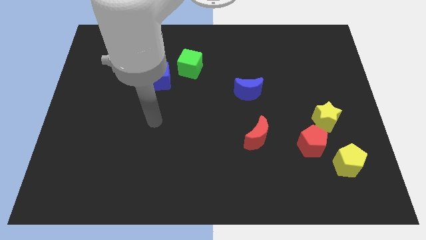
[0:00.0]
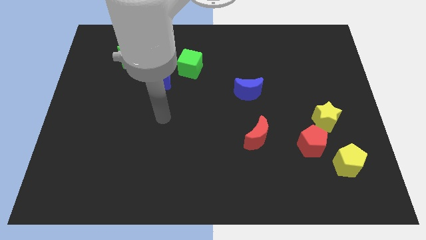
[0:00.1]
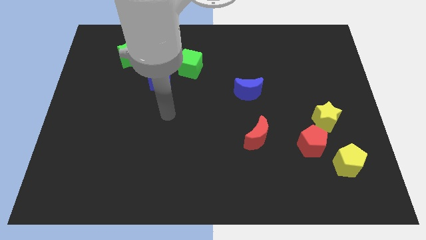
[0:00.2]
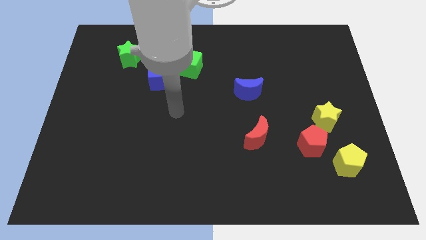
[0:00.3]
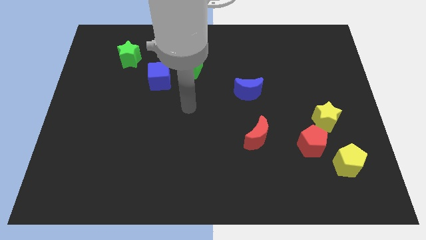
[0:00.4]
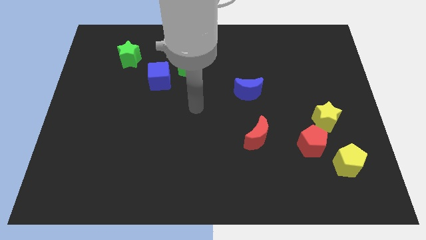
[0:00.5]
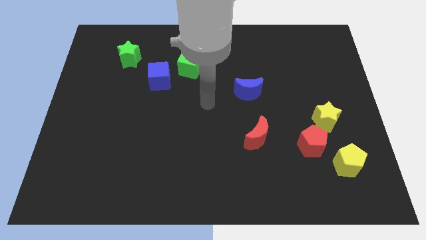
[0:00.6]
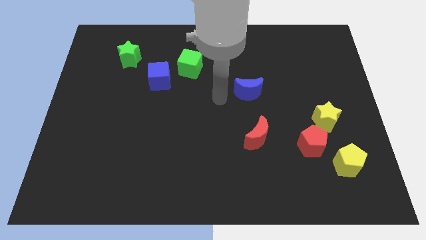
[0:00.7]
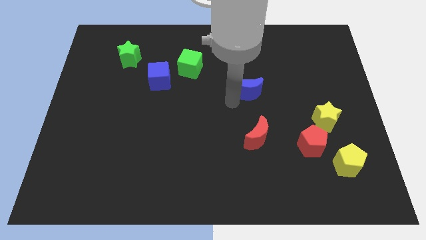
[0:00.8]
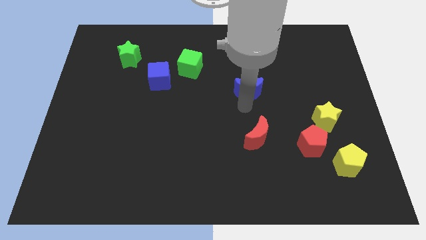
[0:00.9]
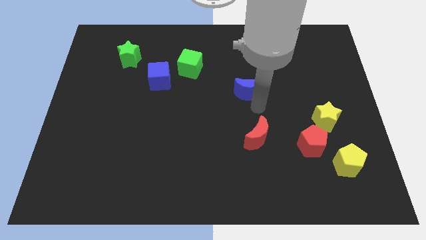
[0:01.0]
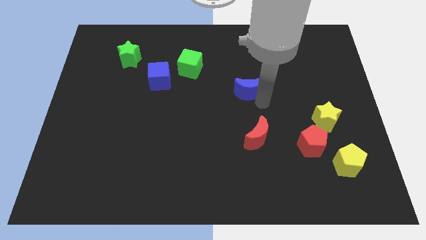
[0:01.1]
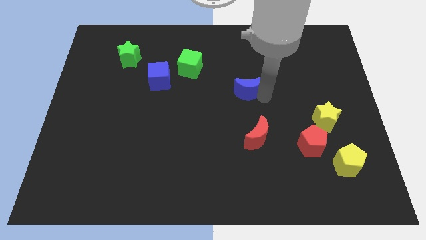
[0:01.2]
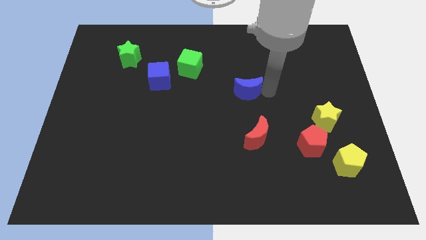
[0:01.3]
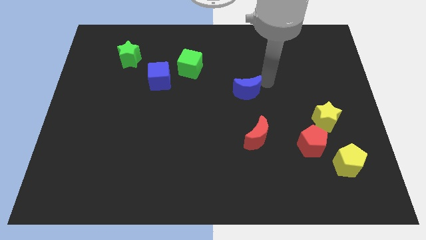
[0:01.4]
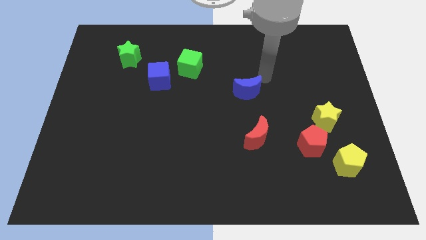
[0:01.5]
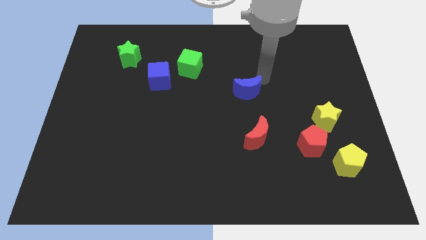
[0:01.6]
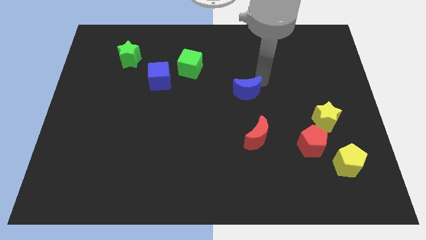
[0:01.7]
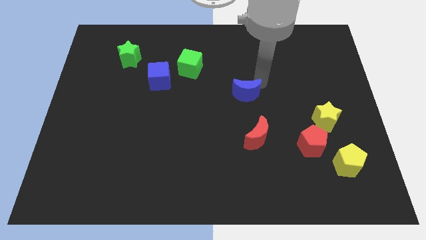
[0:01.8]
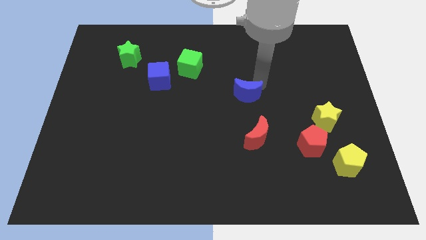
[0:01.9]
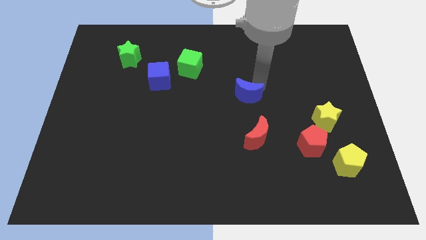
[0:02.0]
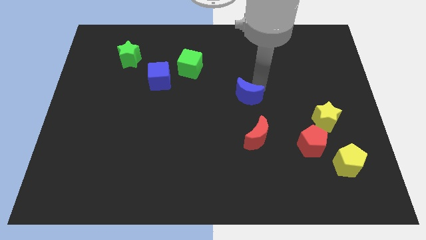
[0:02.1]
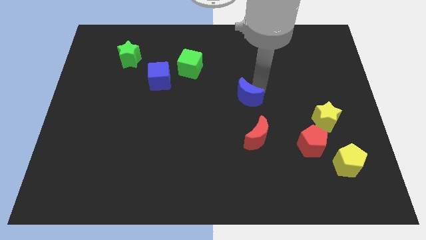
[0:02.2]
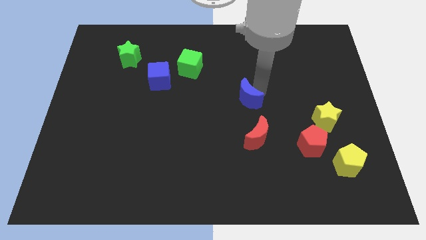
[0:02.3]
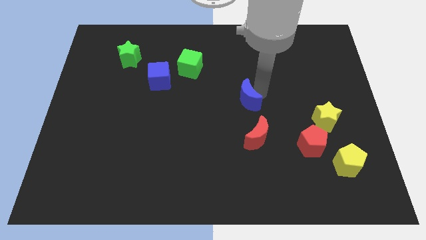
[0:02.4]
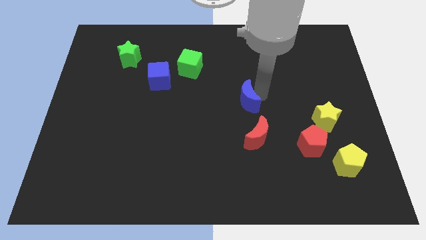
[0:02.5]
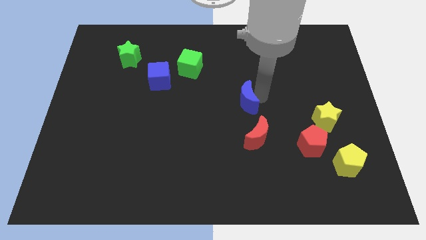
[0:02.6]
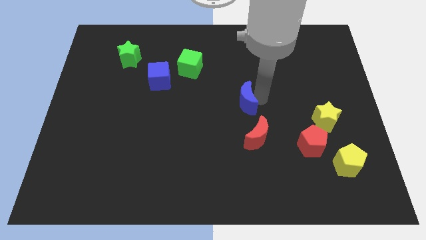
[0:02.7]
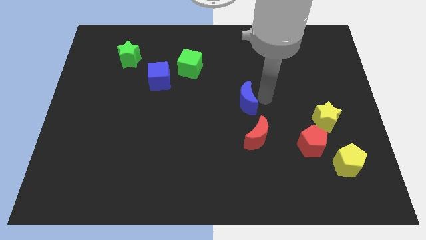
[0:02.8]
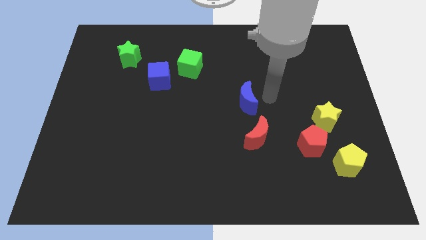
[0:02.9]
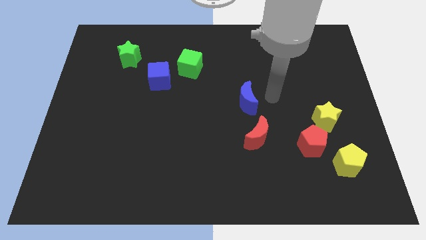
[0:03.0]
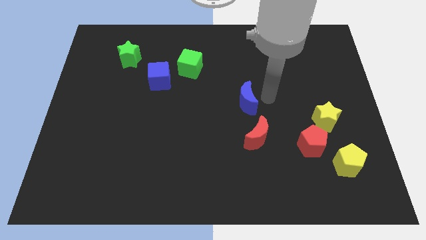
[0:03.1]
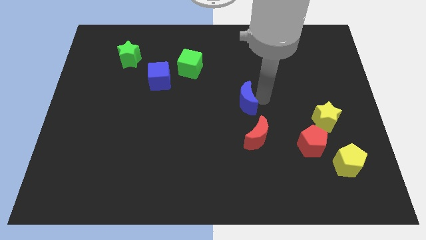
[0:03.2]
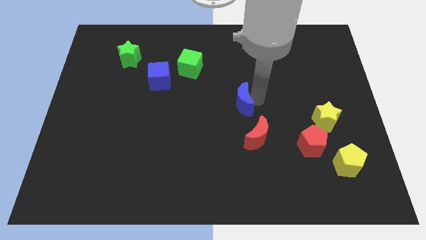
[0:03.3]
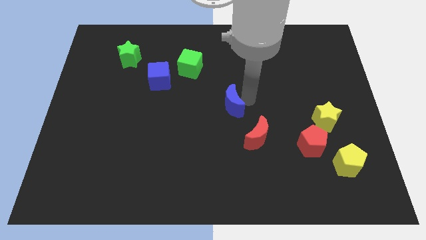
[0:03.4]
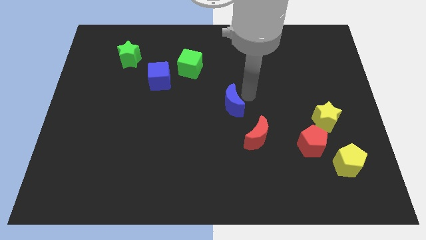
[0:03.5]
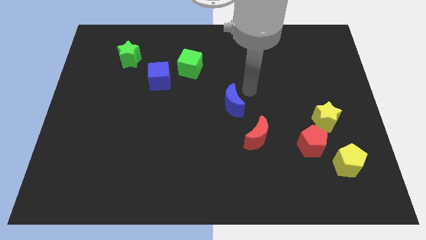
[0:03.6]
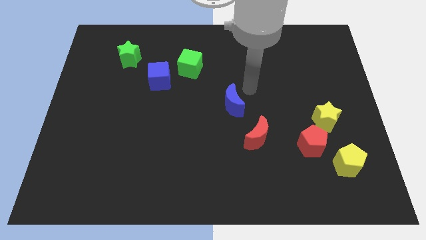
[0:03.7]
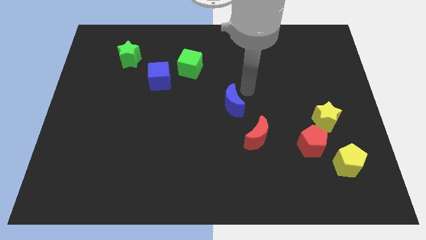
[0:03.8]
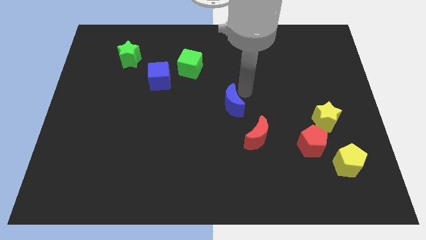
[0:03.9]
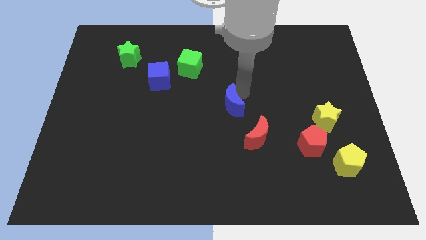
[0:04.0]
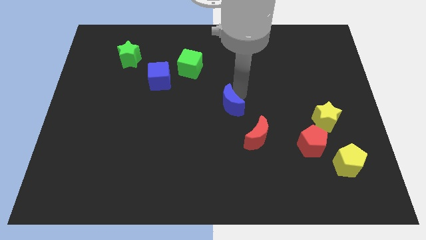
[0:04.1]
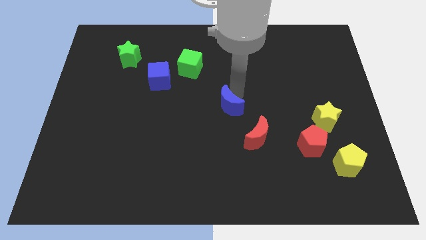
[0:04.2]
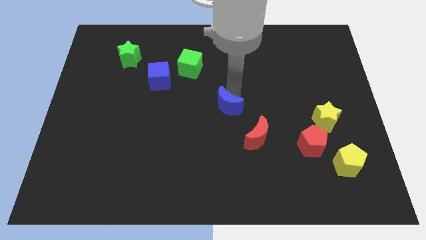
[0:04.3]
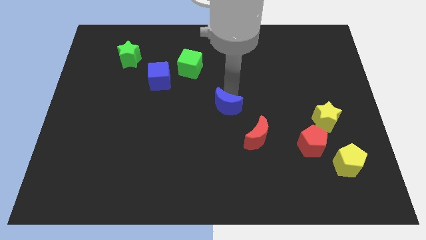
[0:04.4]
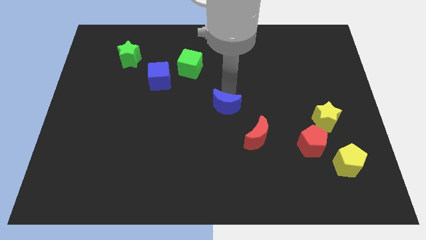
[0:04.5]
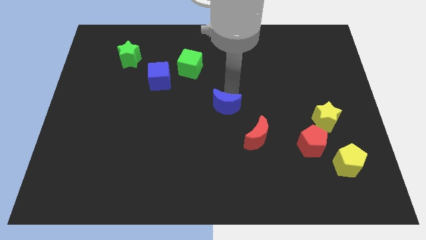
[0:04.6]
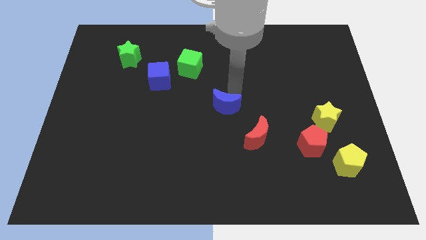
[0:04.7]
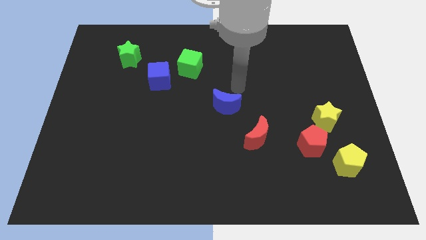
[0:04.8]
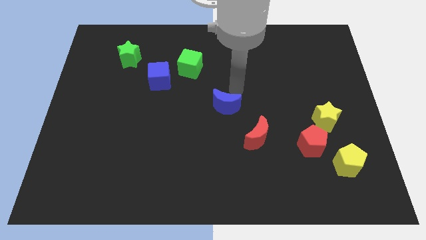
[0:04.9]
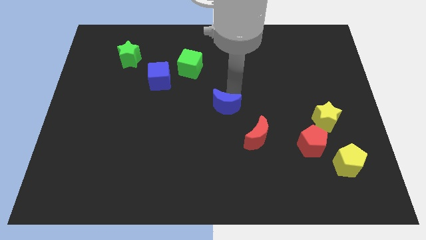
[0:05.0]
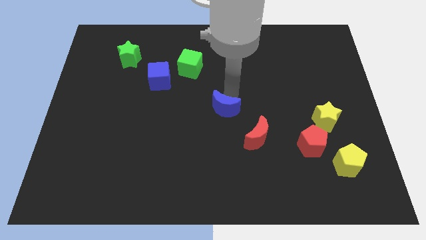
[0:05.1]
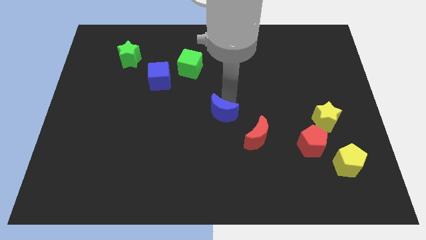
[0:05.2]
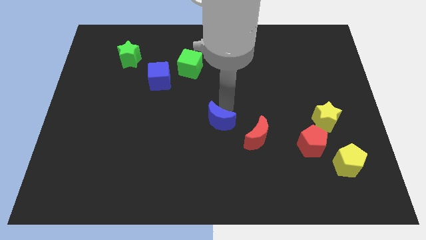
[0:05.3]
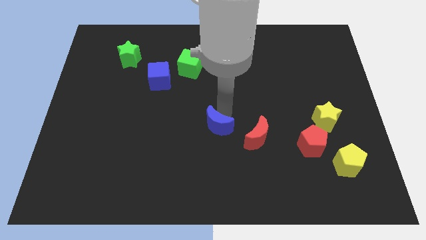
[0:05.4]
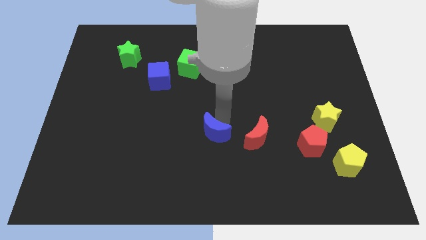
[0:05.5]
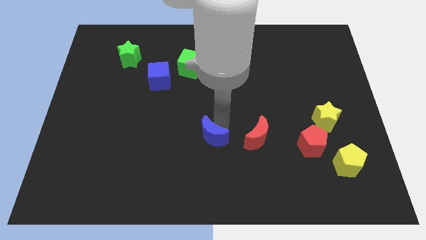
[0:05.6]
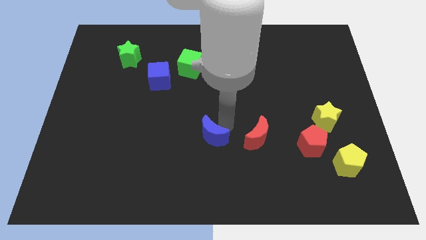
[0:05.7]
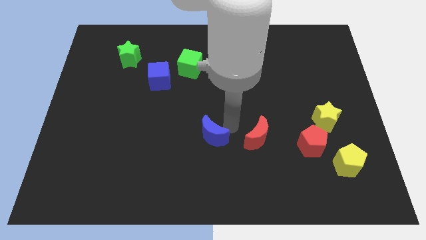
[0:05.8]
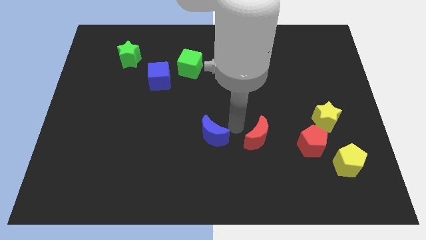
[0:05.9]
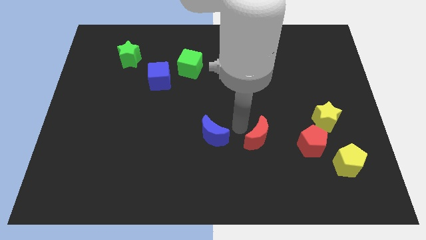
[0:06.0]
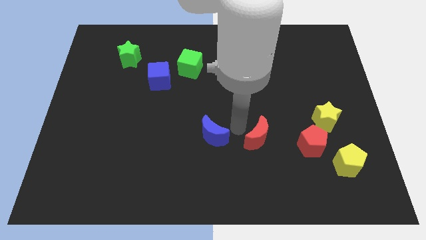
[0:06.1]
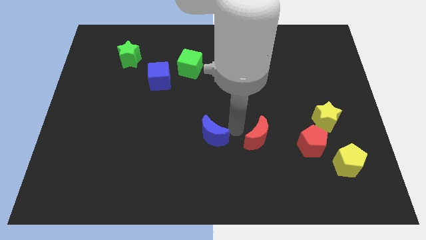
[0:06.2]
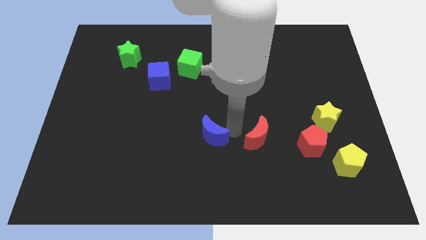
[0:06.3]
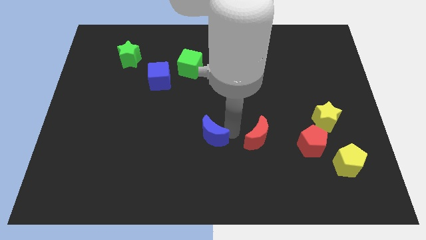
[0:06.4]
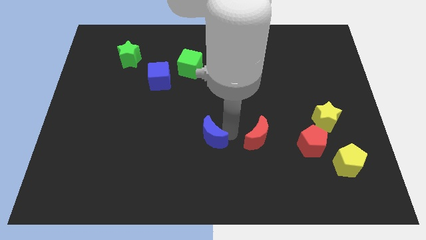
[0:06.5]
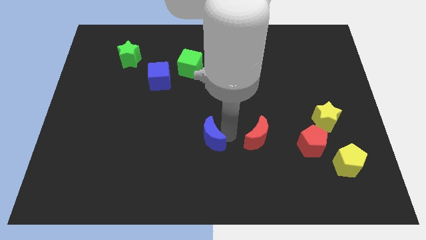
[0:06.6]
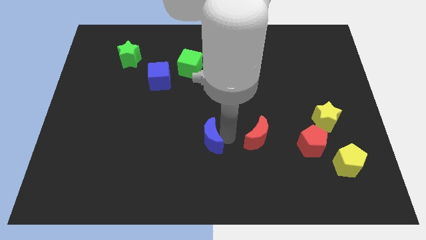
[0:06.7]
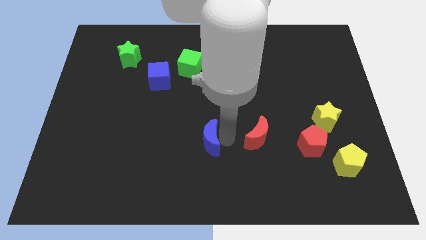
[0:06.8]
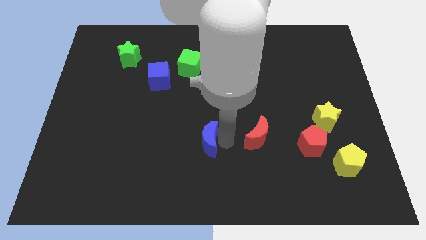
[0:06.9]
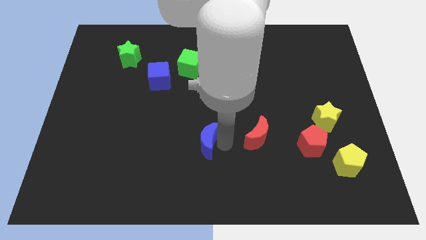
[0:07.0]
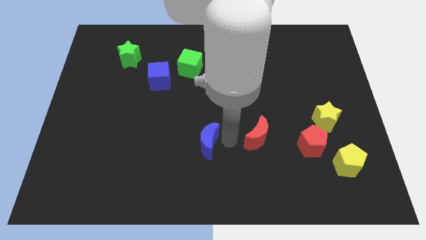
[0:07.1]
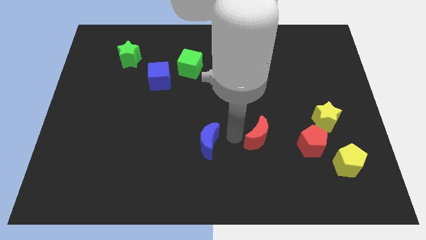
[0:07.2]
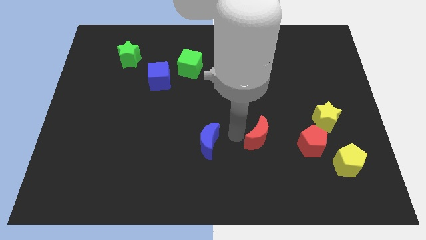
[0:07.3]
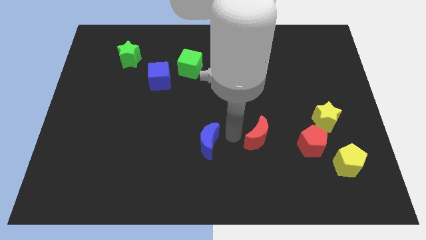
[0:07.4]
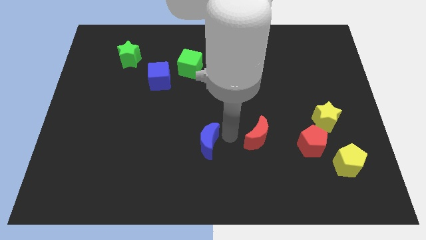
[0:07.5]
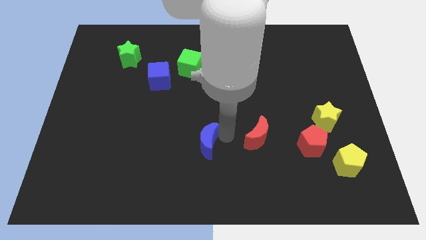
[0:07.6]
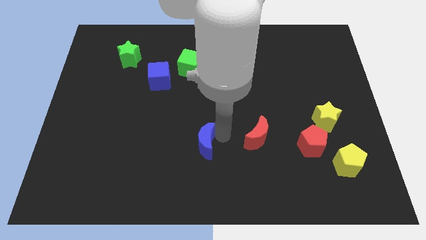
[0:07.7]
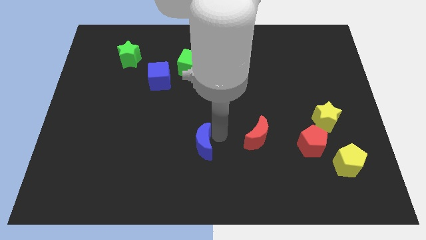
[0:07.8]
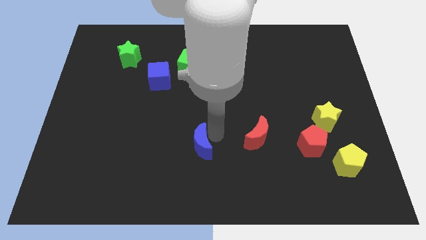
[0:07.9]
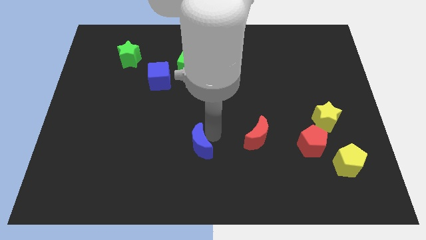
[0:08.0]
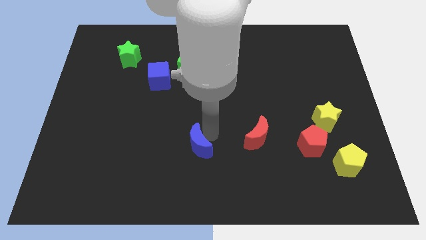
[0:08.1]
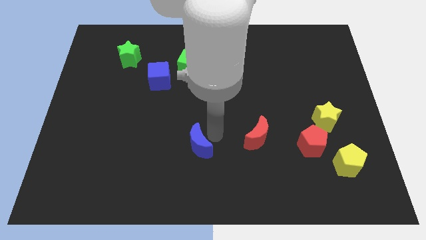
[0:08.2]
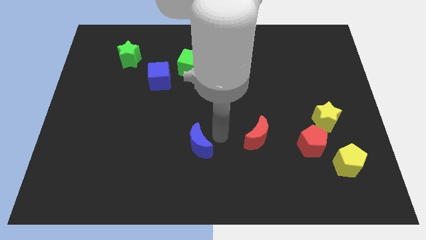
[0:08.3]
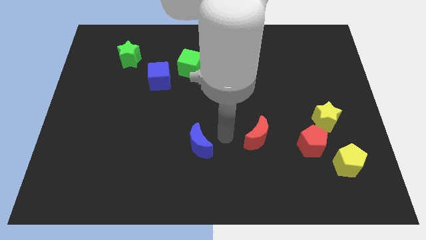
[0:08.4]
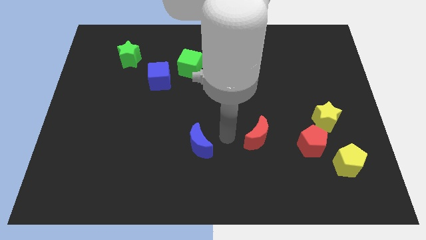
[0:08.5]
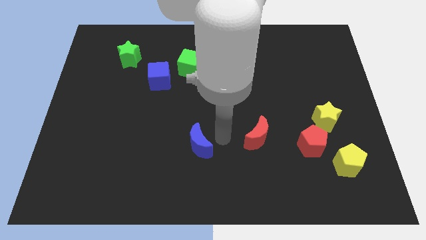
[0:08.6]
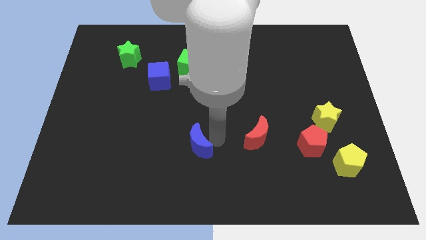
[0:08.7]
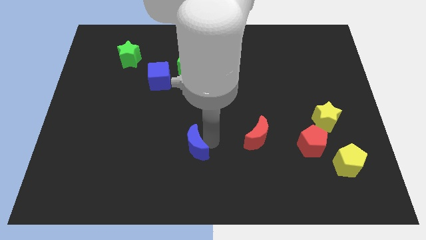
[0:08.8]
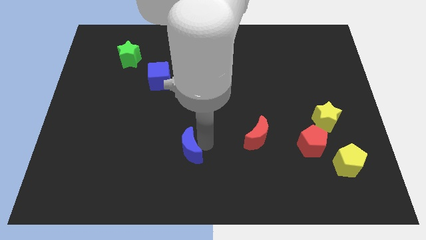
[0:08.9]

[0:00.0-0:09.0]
move the blue moon diagonally downwards and left
